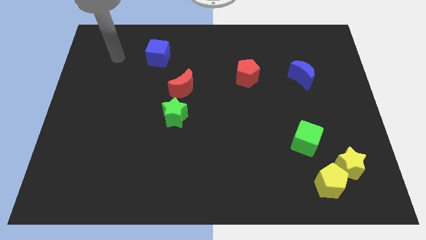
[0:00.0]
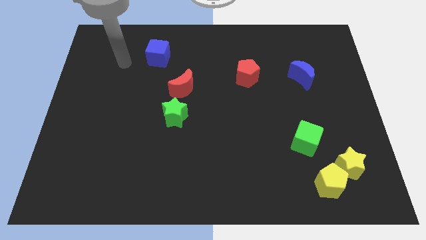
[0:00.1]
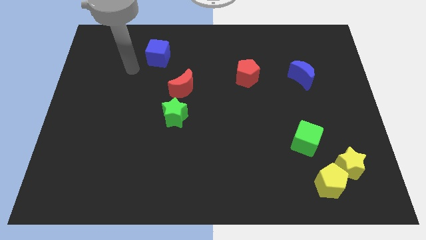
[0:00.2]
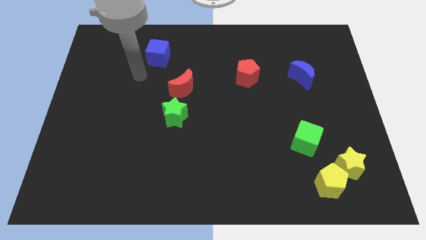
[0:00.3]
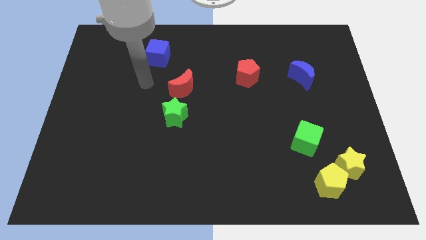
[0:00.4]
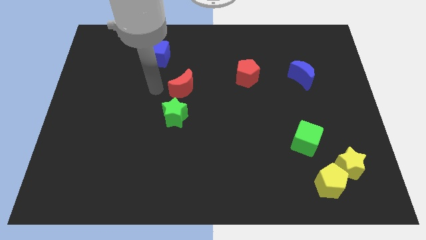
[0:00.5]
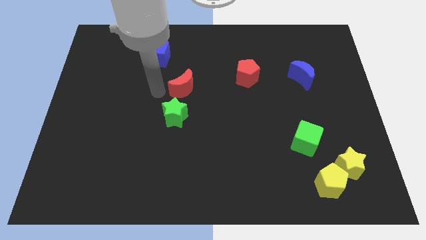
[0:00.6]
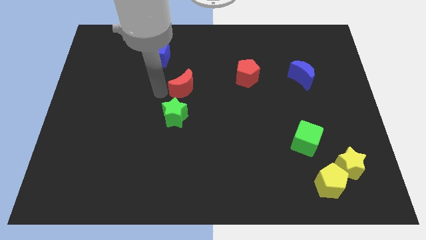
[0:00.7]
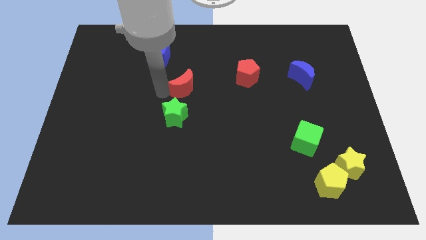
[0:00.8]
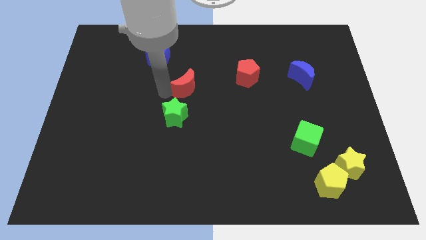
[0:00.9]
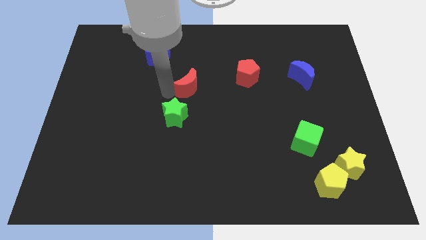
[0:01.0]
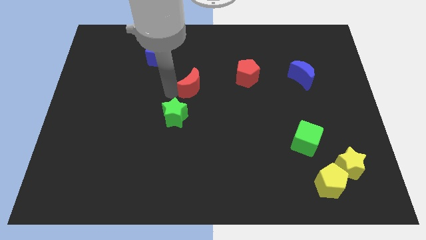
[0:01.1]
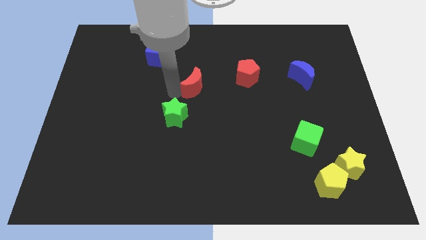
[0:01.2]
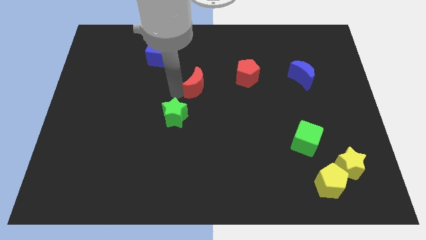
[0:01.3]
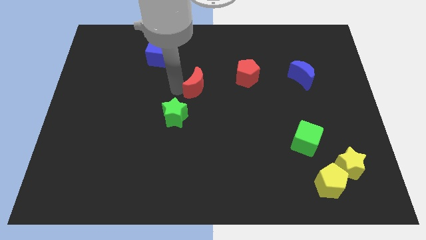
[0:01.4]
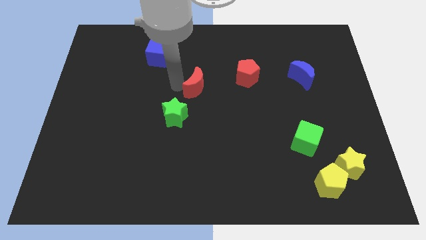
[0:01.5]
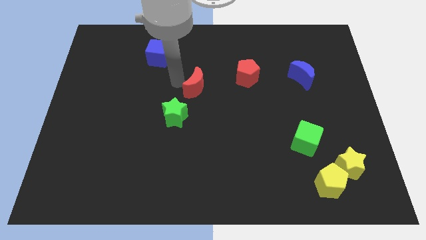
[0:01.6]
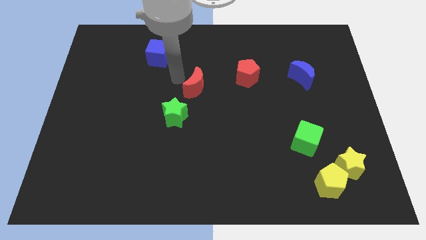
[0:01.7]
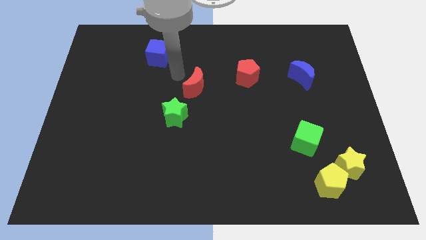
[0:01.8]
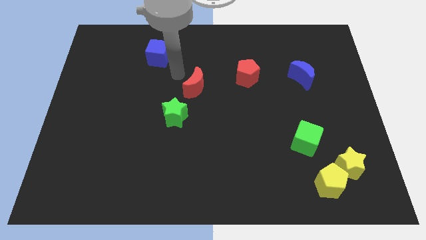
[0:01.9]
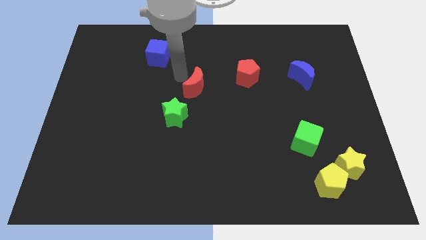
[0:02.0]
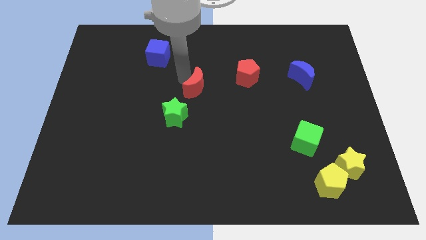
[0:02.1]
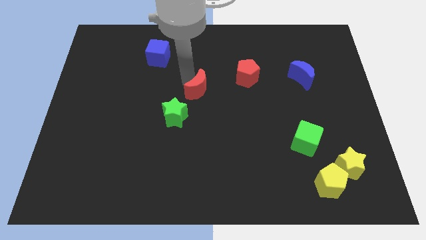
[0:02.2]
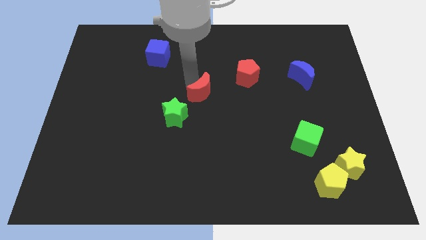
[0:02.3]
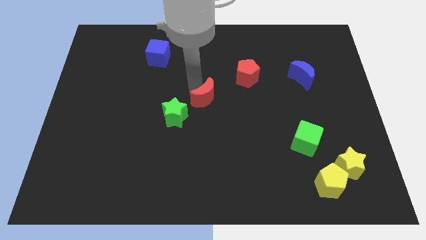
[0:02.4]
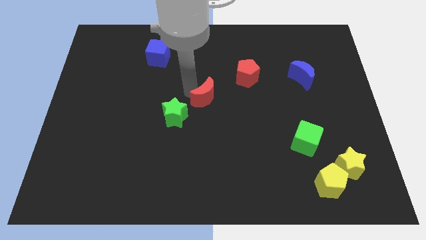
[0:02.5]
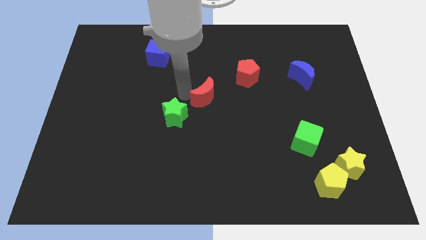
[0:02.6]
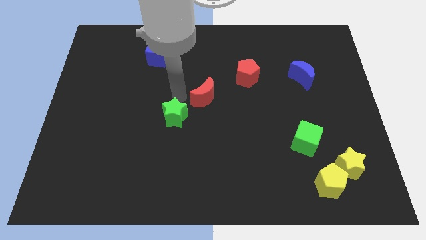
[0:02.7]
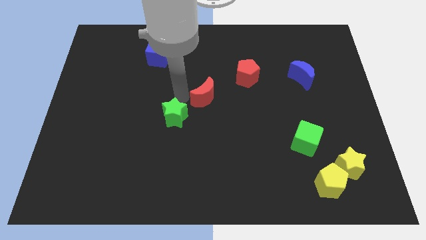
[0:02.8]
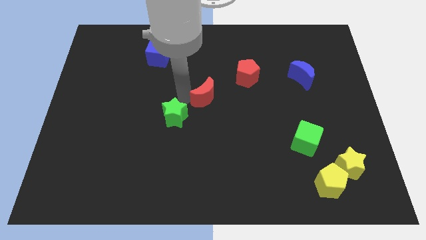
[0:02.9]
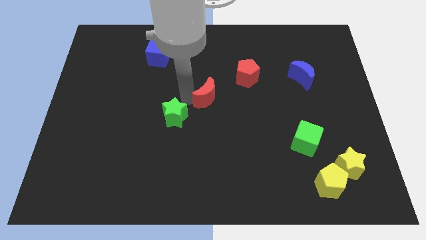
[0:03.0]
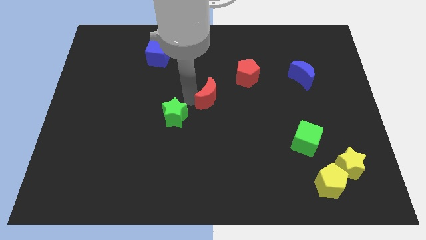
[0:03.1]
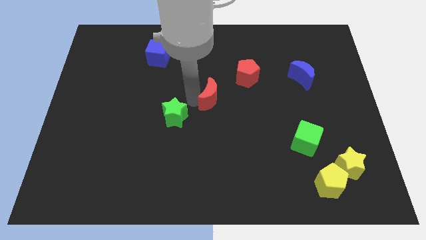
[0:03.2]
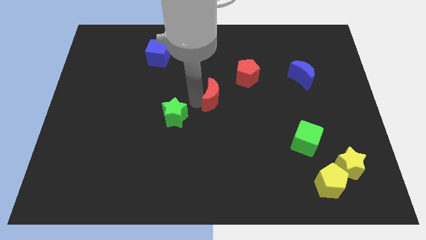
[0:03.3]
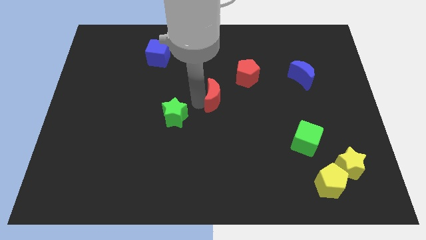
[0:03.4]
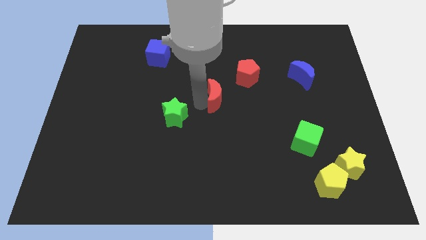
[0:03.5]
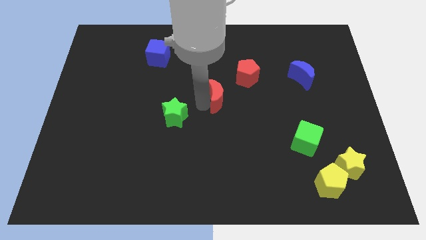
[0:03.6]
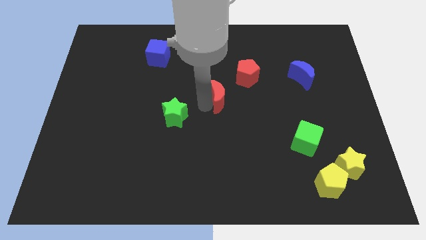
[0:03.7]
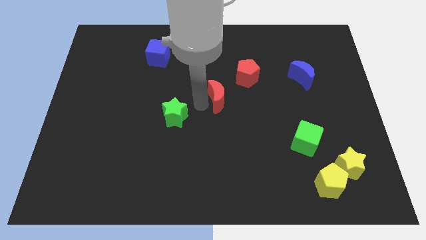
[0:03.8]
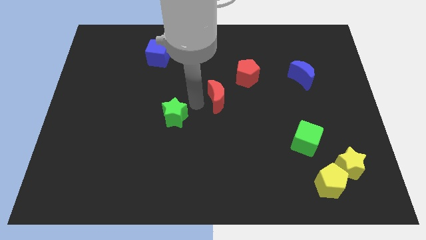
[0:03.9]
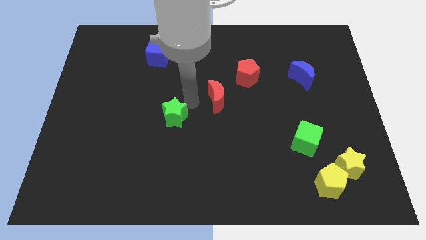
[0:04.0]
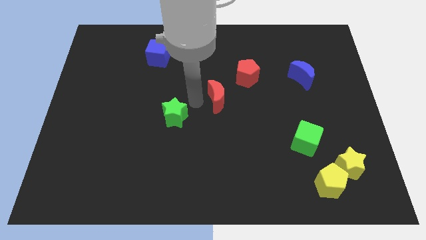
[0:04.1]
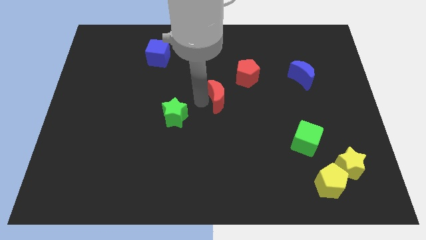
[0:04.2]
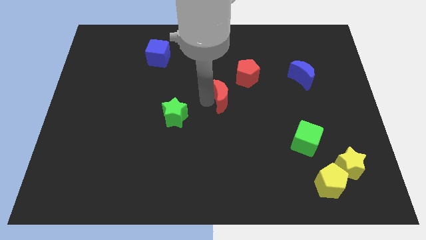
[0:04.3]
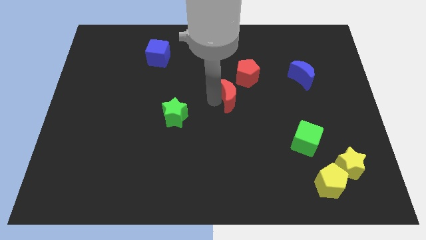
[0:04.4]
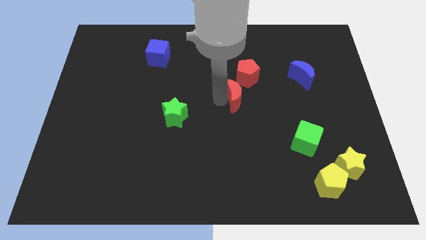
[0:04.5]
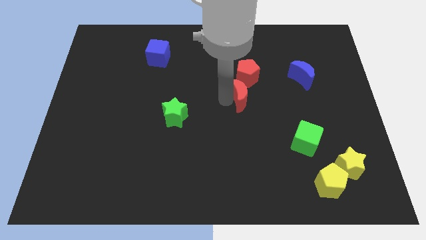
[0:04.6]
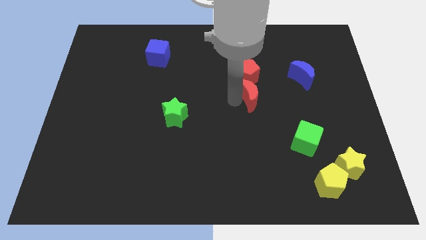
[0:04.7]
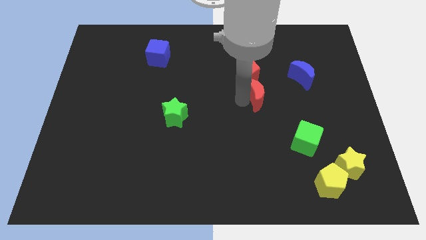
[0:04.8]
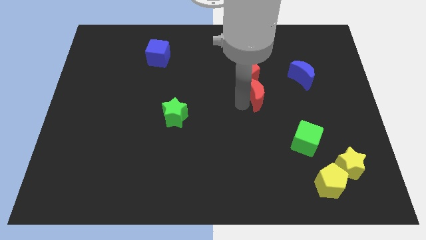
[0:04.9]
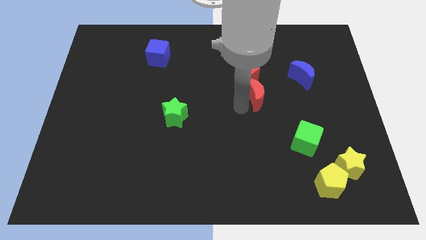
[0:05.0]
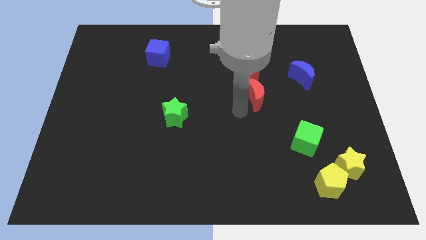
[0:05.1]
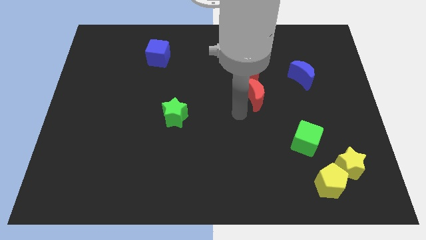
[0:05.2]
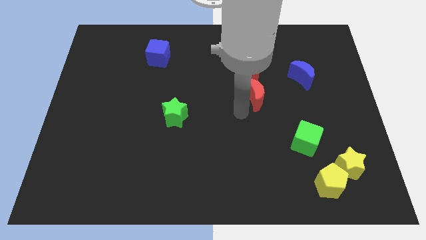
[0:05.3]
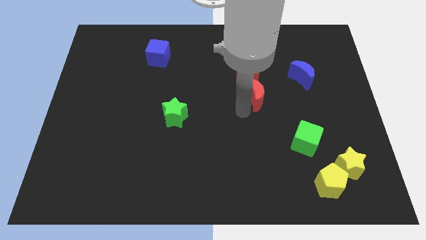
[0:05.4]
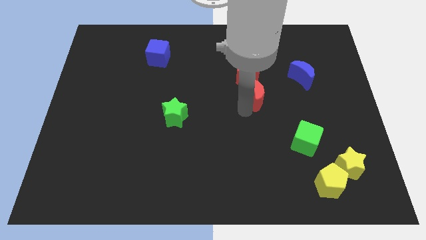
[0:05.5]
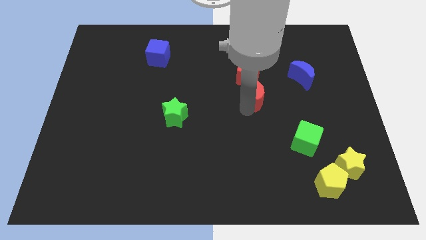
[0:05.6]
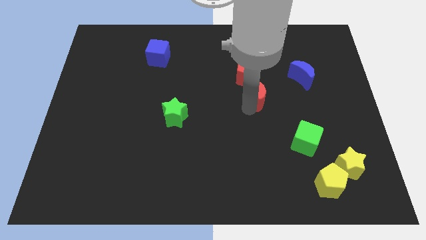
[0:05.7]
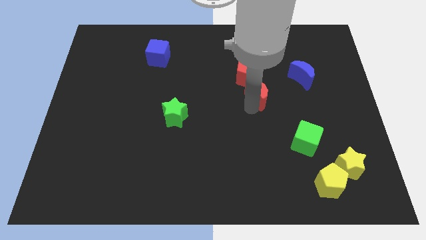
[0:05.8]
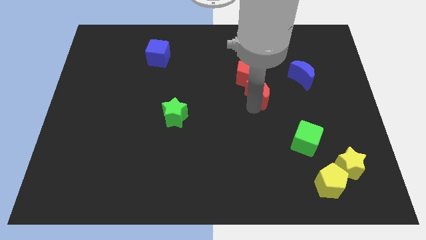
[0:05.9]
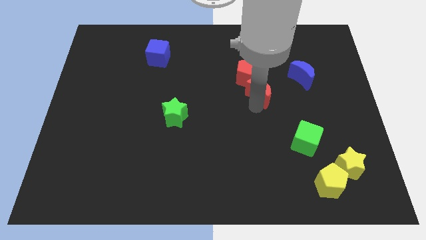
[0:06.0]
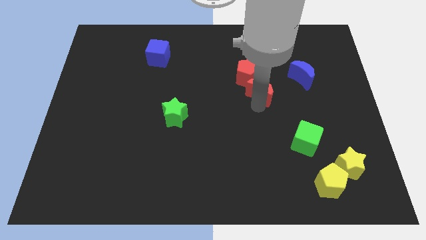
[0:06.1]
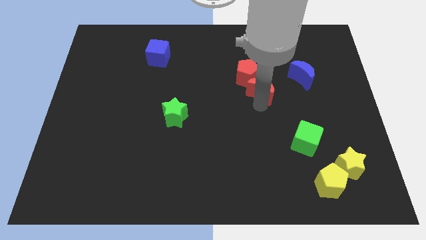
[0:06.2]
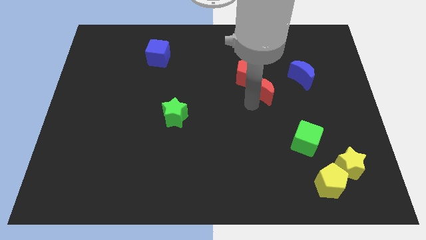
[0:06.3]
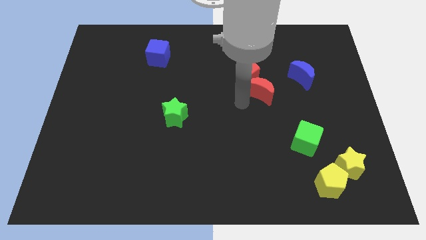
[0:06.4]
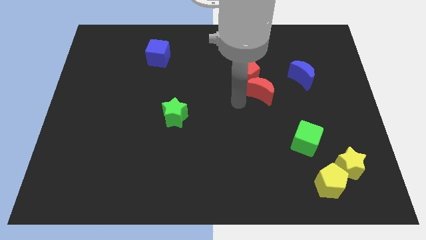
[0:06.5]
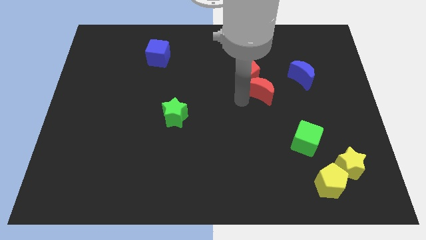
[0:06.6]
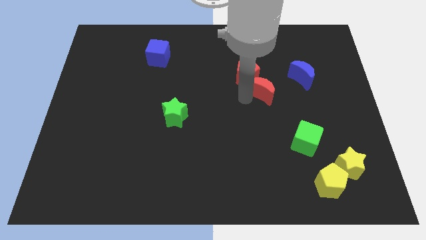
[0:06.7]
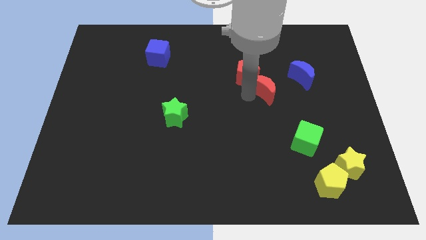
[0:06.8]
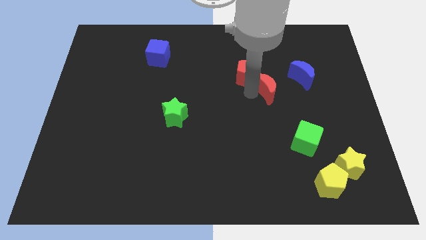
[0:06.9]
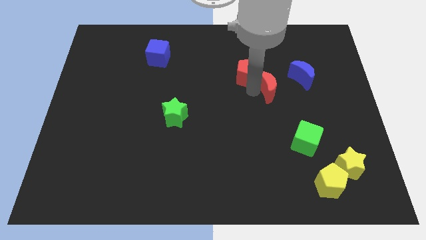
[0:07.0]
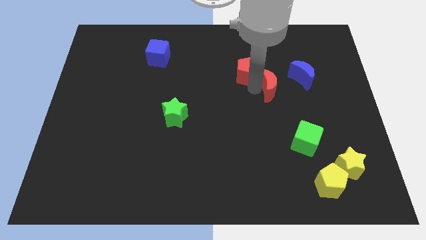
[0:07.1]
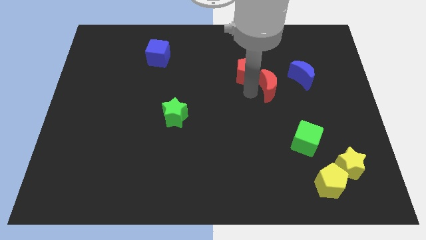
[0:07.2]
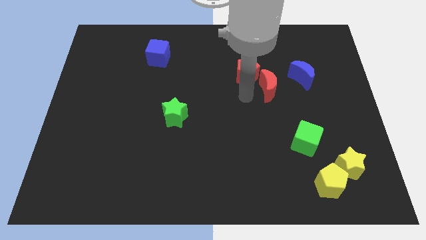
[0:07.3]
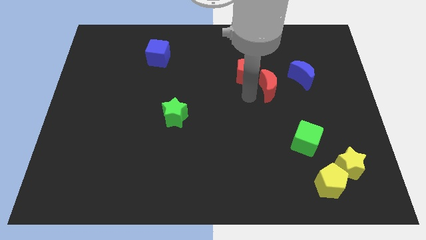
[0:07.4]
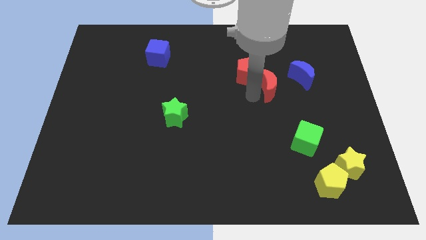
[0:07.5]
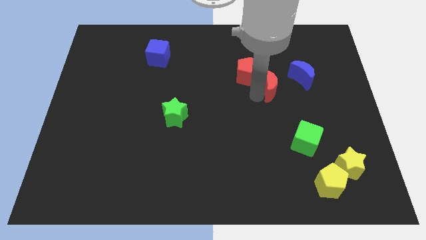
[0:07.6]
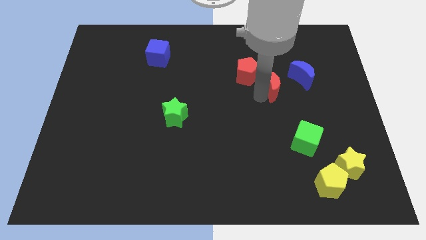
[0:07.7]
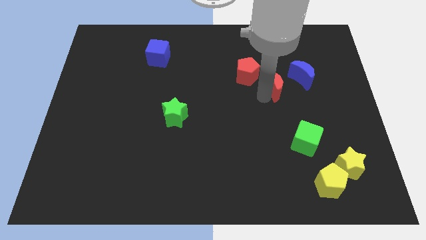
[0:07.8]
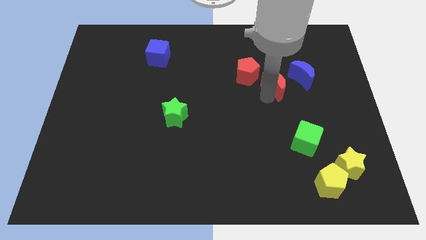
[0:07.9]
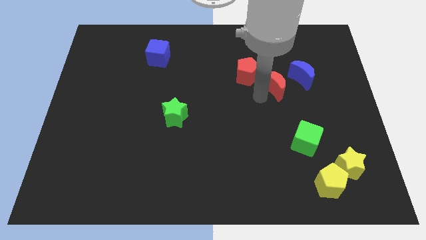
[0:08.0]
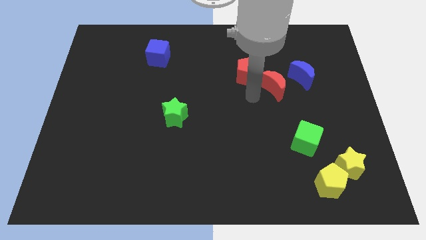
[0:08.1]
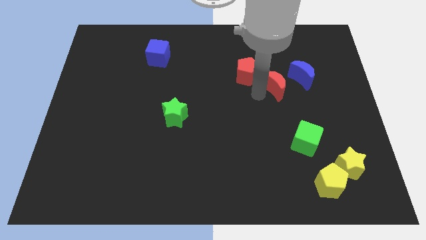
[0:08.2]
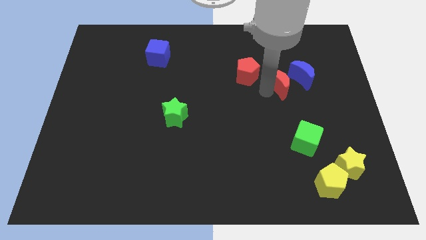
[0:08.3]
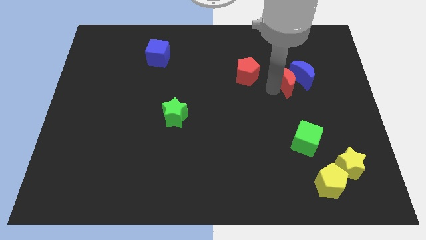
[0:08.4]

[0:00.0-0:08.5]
slide the red moon to the blue moon
